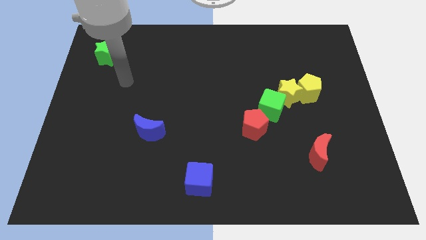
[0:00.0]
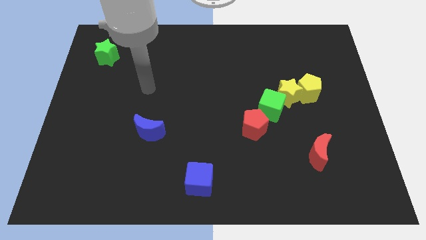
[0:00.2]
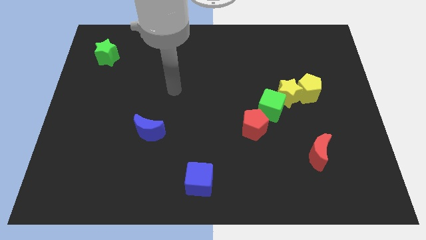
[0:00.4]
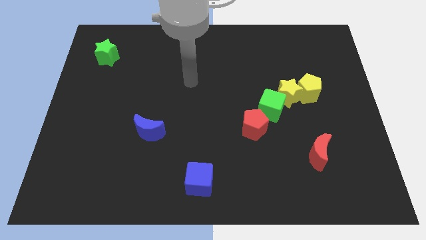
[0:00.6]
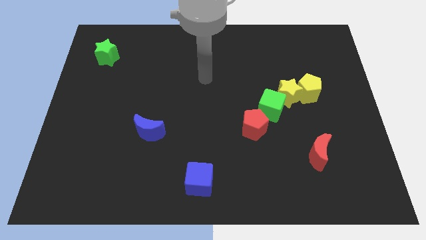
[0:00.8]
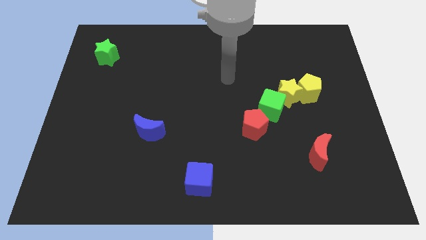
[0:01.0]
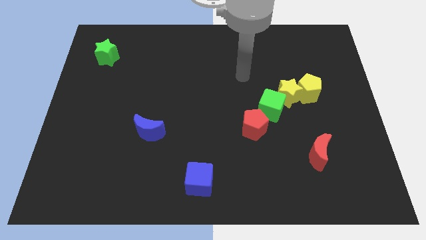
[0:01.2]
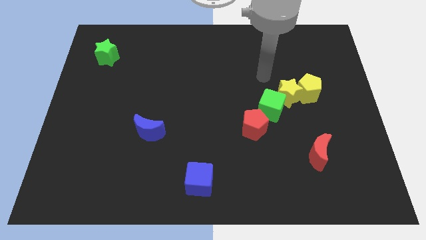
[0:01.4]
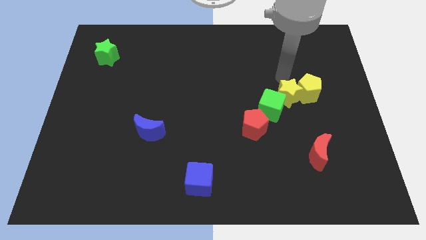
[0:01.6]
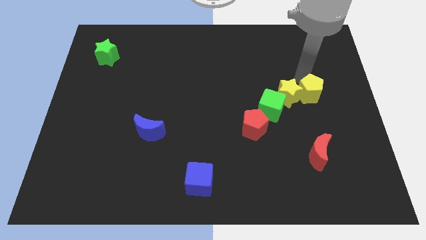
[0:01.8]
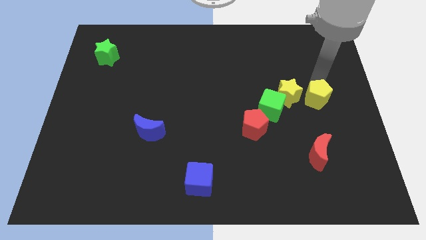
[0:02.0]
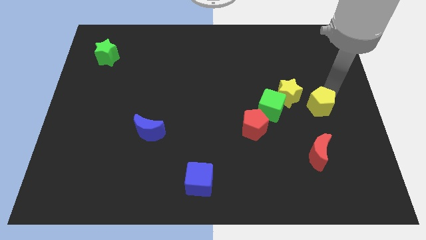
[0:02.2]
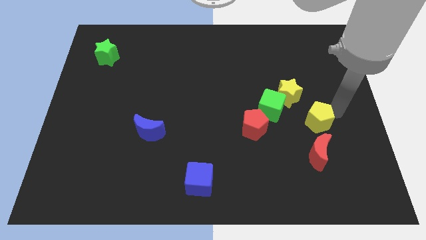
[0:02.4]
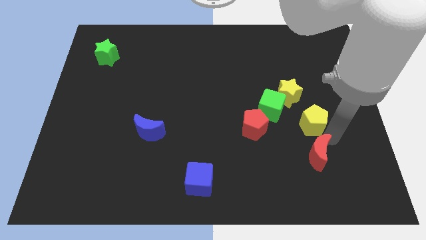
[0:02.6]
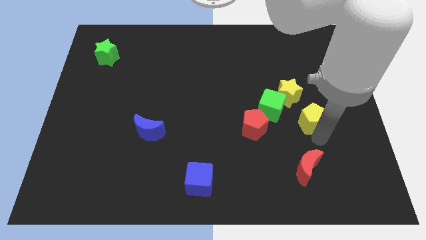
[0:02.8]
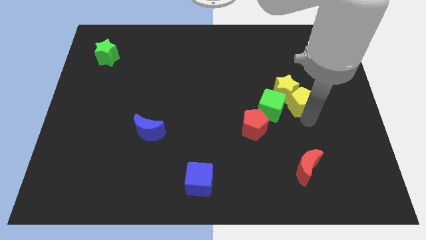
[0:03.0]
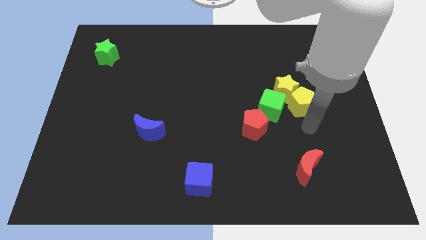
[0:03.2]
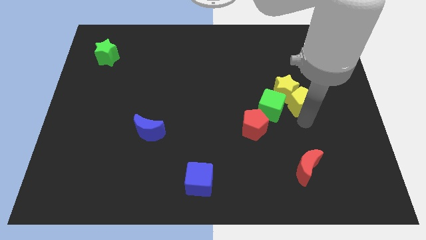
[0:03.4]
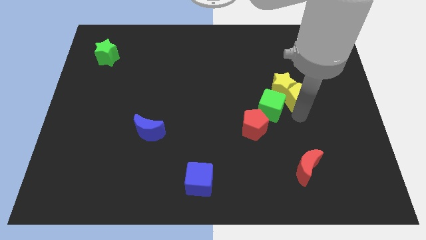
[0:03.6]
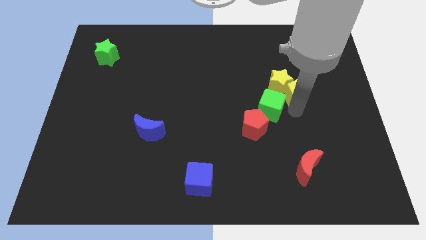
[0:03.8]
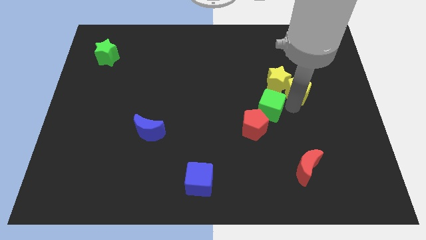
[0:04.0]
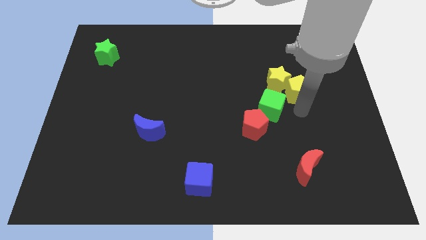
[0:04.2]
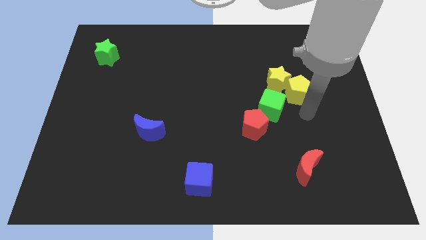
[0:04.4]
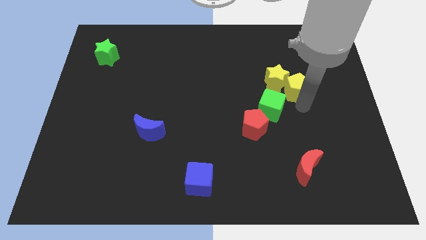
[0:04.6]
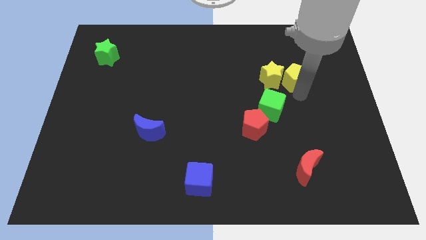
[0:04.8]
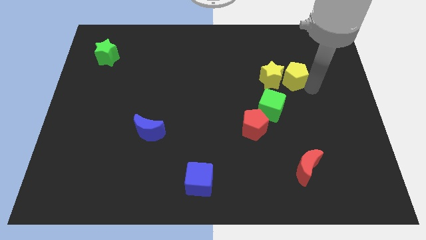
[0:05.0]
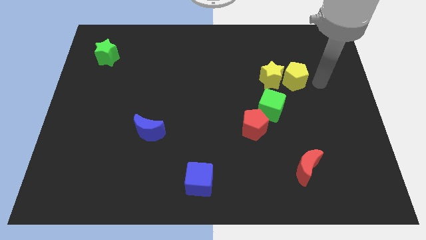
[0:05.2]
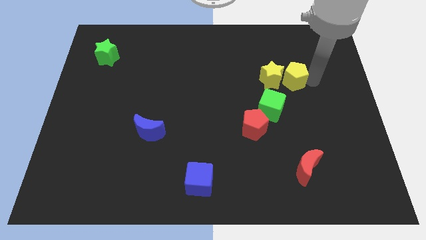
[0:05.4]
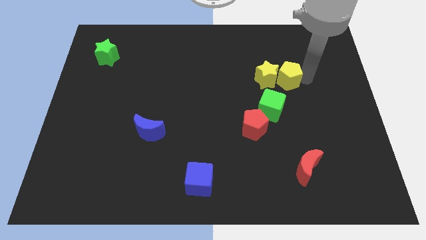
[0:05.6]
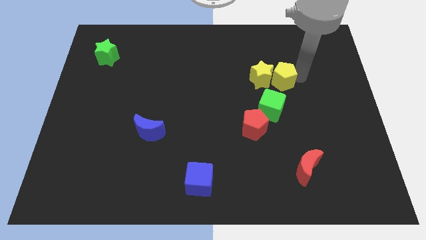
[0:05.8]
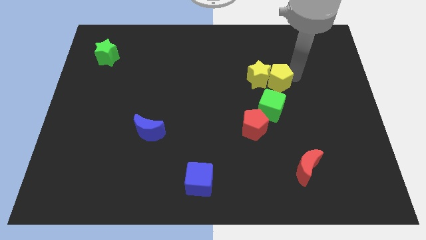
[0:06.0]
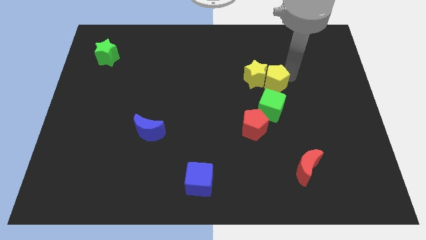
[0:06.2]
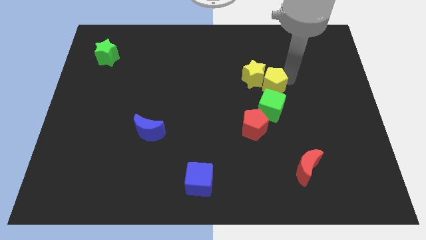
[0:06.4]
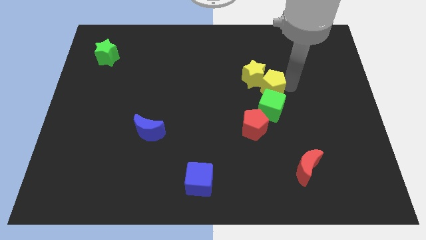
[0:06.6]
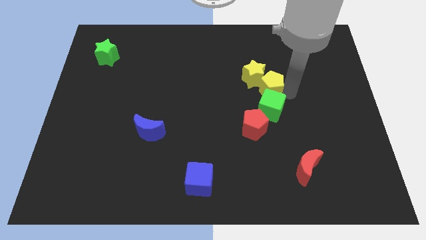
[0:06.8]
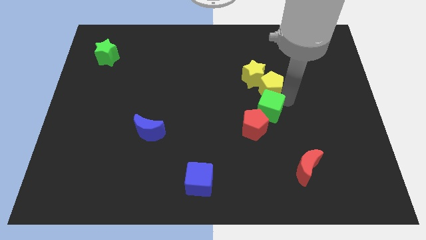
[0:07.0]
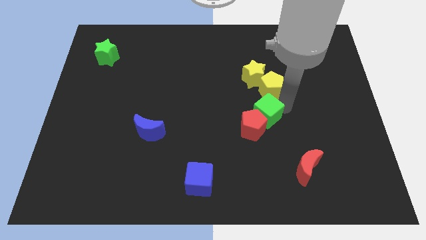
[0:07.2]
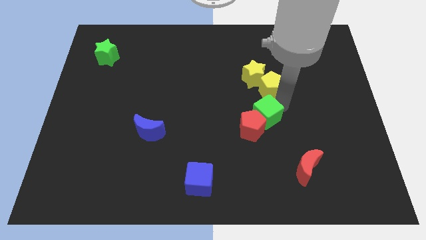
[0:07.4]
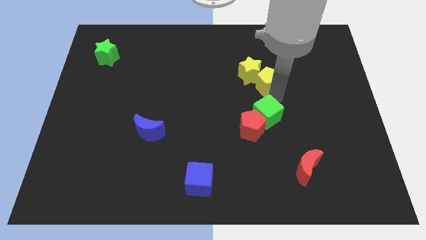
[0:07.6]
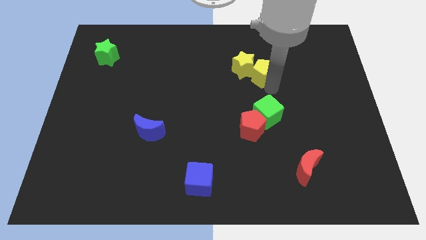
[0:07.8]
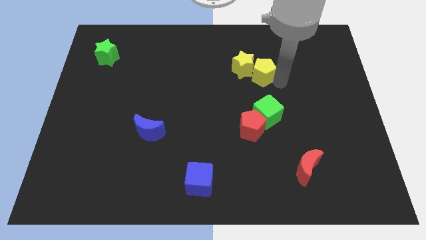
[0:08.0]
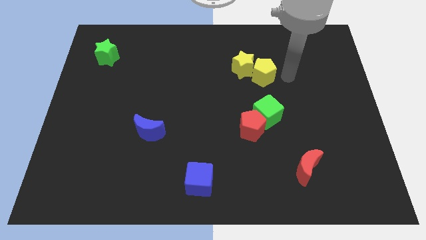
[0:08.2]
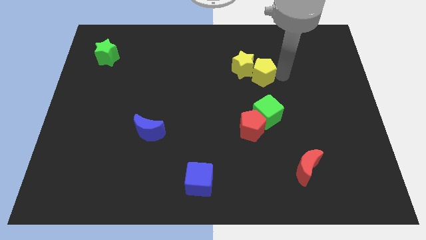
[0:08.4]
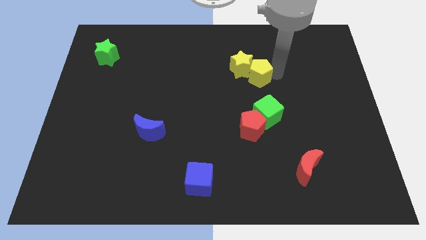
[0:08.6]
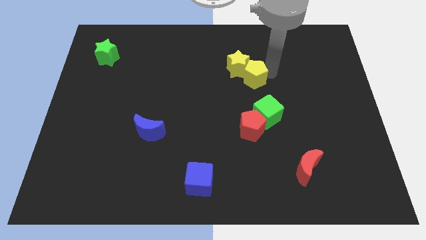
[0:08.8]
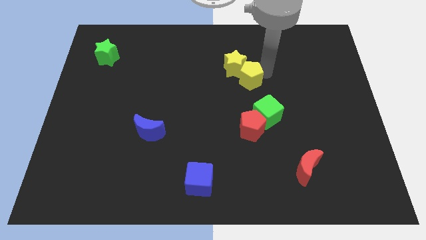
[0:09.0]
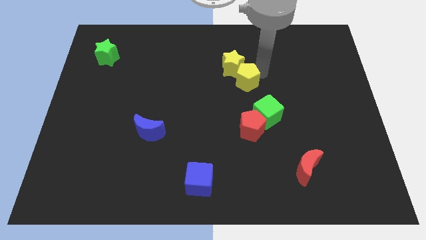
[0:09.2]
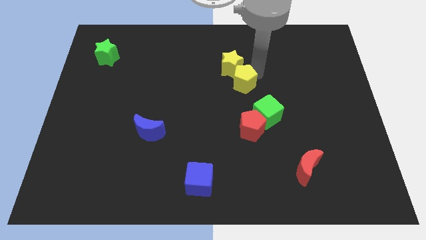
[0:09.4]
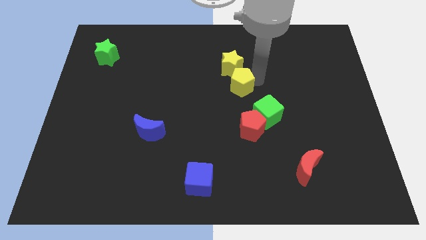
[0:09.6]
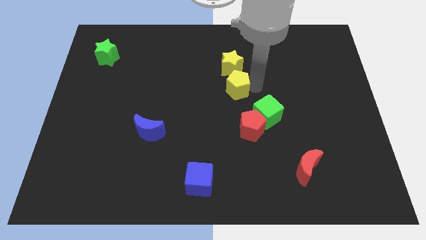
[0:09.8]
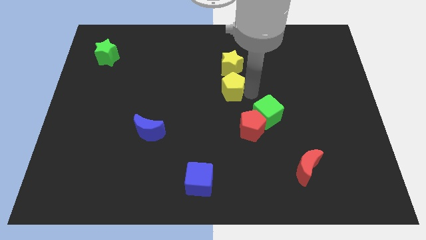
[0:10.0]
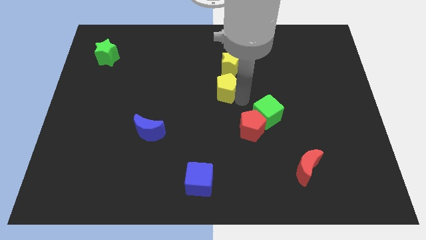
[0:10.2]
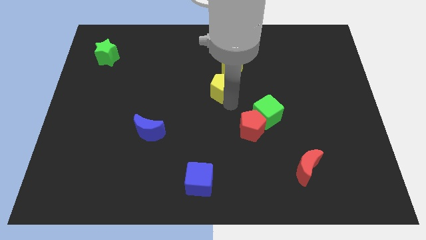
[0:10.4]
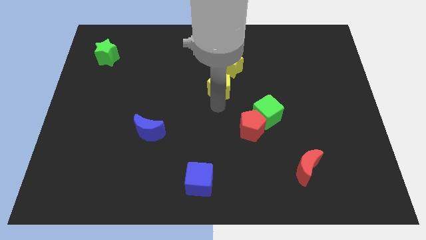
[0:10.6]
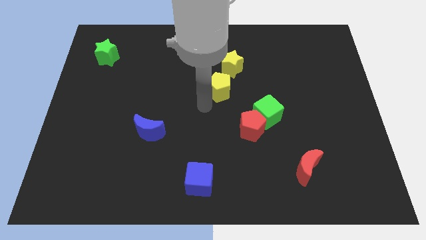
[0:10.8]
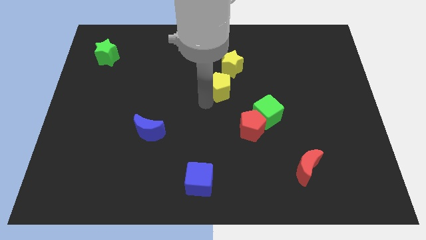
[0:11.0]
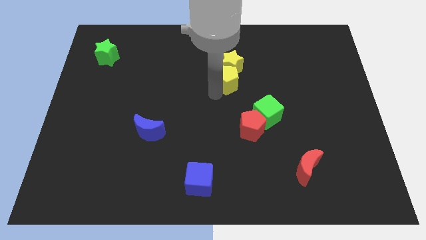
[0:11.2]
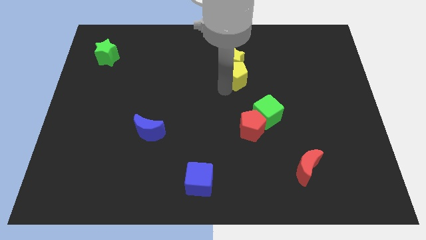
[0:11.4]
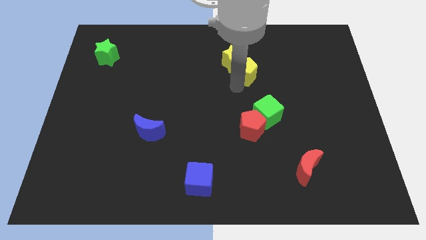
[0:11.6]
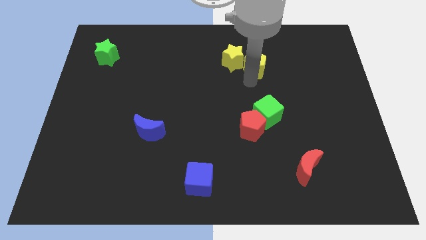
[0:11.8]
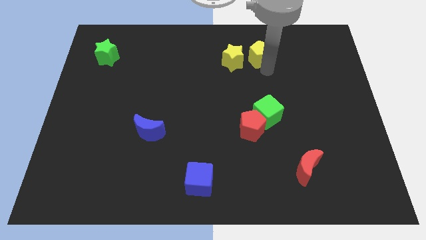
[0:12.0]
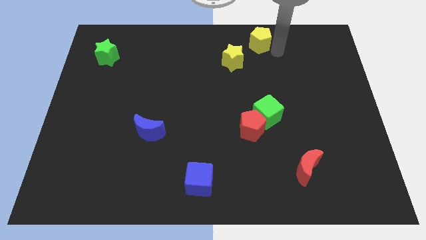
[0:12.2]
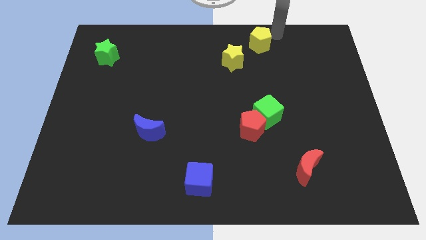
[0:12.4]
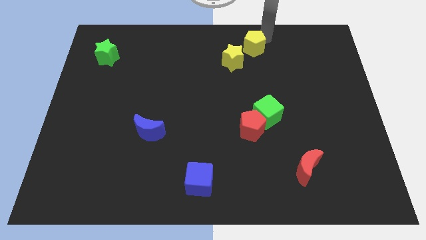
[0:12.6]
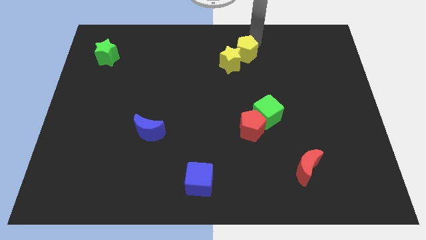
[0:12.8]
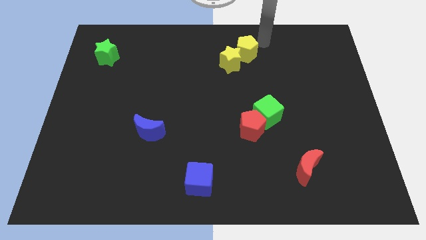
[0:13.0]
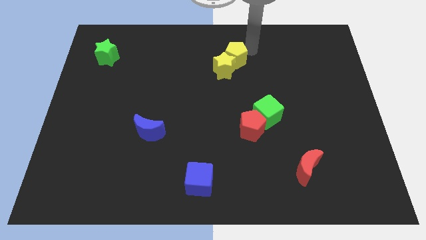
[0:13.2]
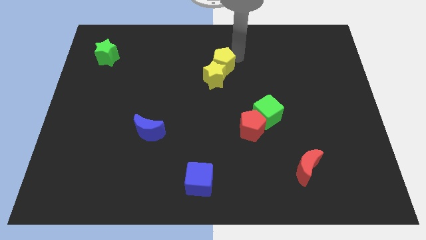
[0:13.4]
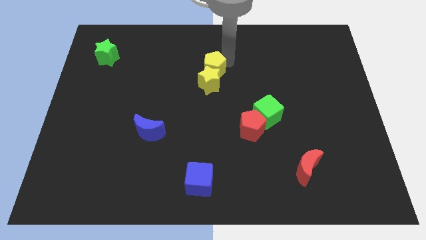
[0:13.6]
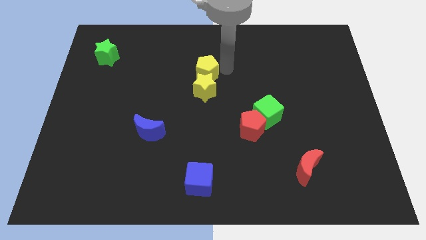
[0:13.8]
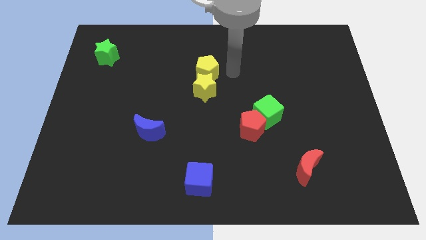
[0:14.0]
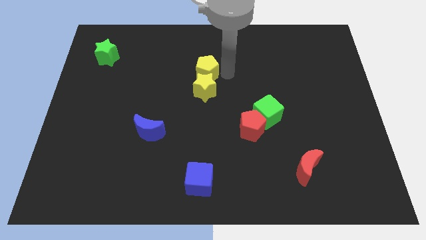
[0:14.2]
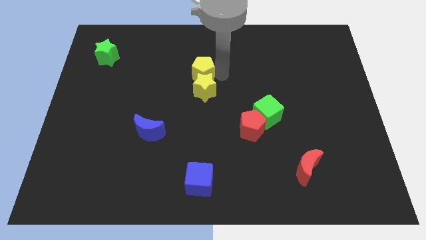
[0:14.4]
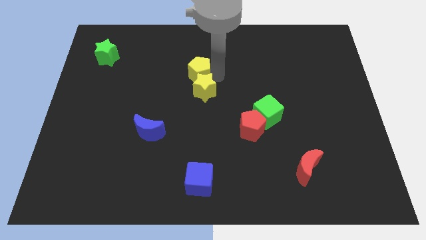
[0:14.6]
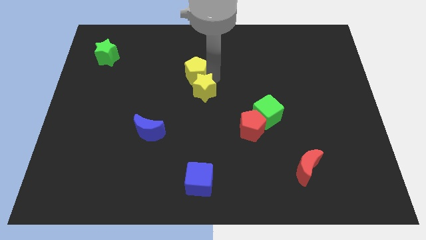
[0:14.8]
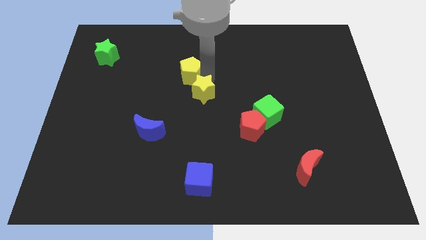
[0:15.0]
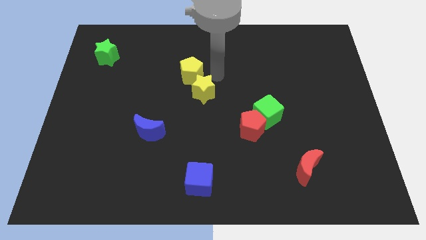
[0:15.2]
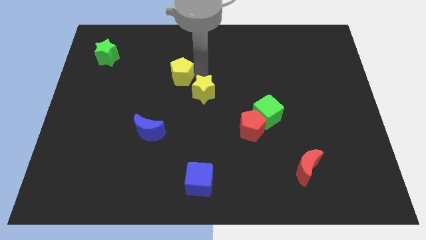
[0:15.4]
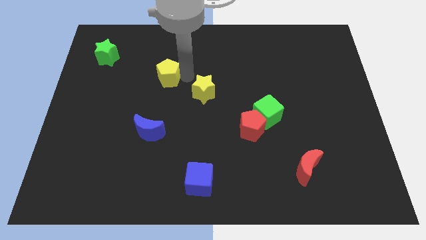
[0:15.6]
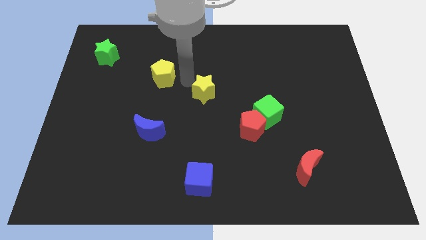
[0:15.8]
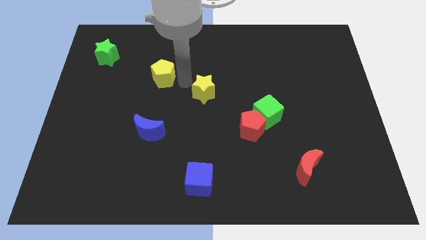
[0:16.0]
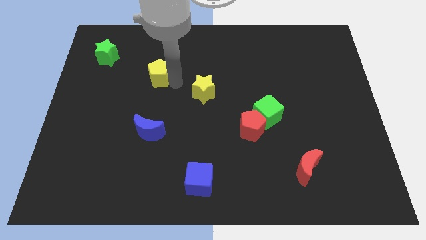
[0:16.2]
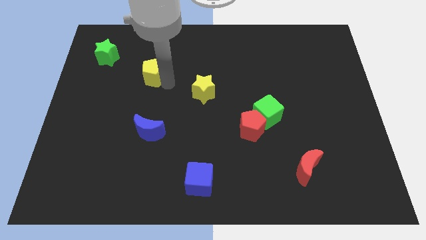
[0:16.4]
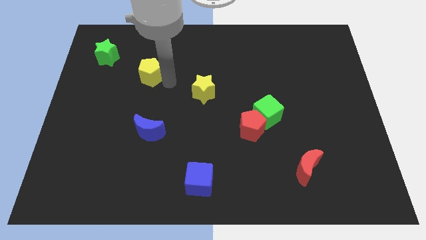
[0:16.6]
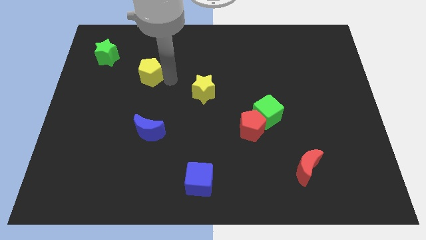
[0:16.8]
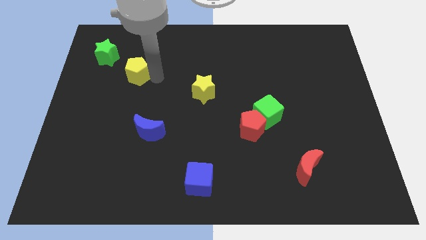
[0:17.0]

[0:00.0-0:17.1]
slide the yellow pentagon to the bottom right of the green star
